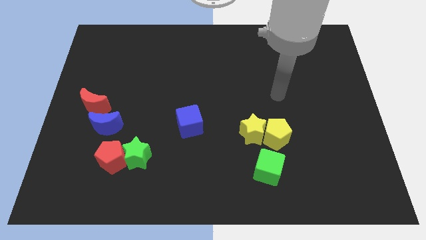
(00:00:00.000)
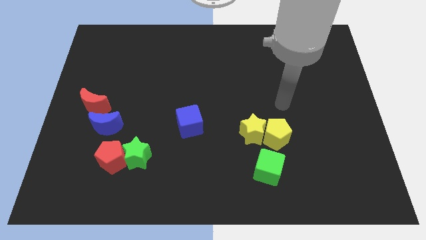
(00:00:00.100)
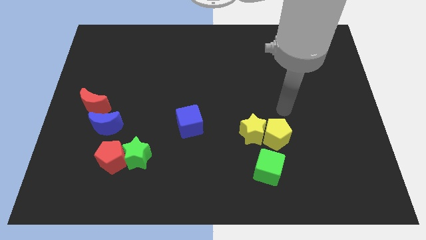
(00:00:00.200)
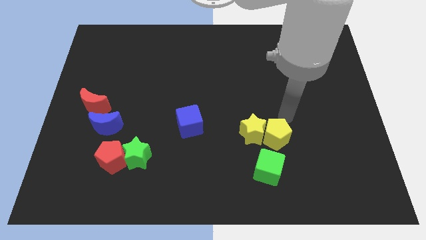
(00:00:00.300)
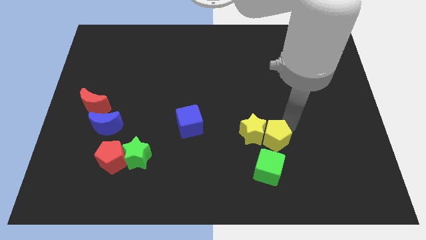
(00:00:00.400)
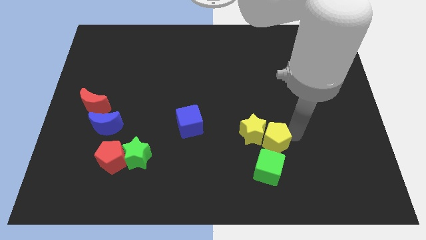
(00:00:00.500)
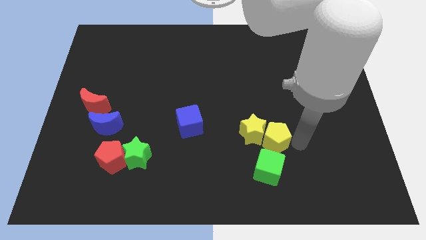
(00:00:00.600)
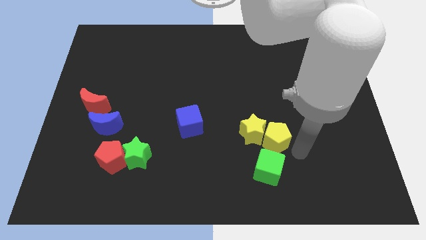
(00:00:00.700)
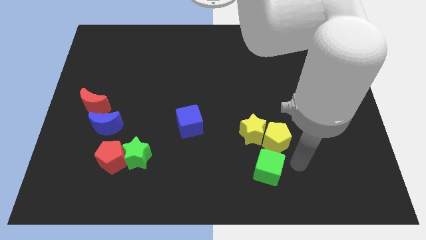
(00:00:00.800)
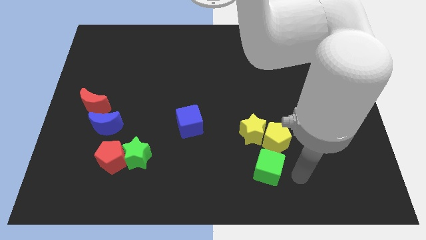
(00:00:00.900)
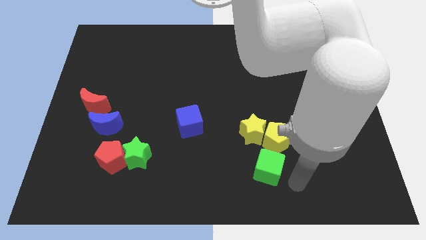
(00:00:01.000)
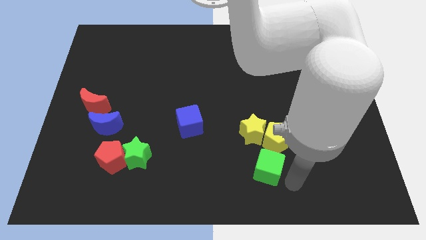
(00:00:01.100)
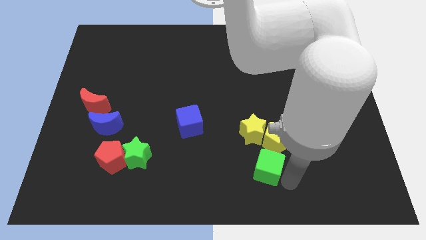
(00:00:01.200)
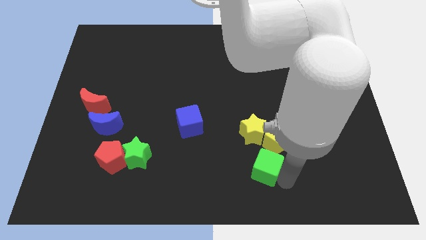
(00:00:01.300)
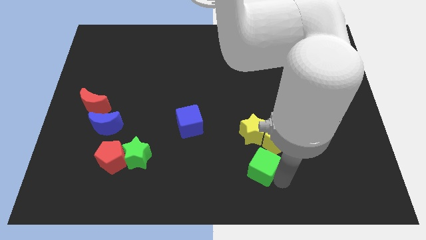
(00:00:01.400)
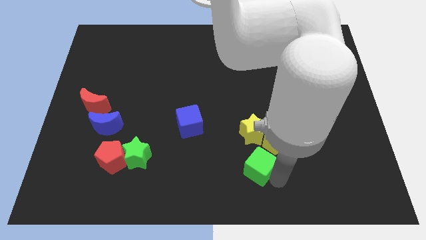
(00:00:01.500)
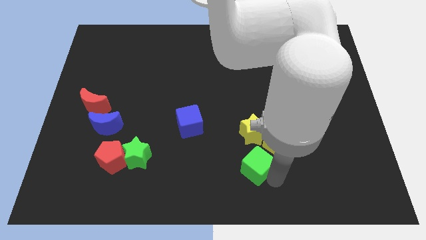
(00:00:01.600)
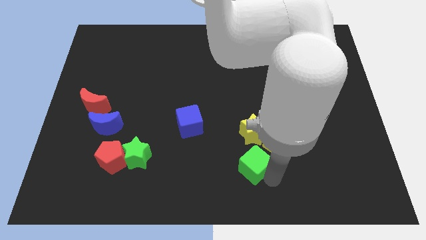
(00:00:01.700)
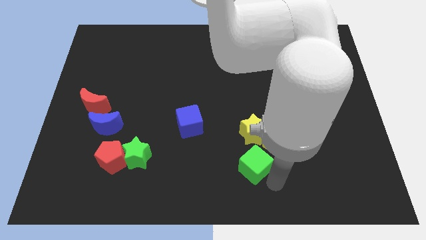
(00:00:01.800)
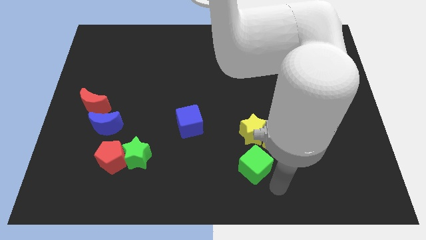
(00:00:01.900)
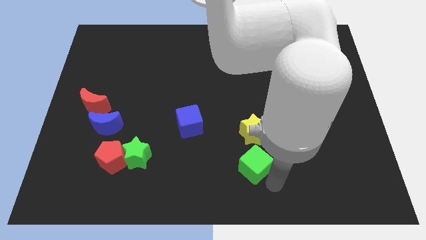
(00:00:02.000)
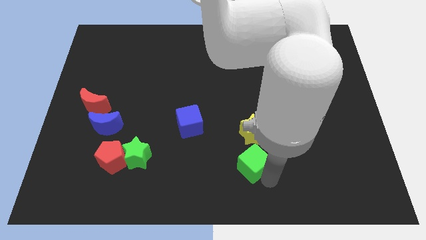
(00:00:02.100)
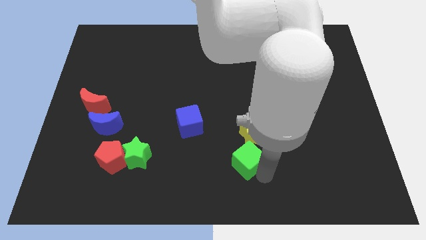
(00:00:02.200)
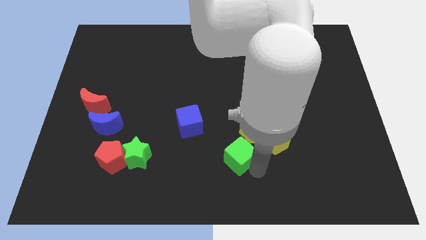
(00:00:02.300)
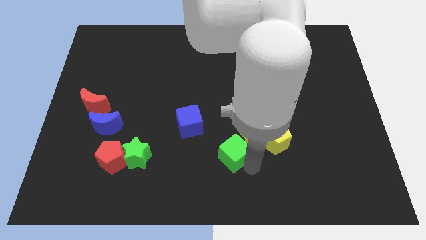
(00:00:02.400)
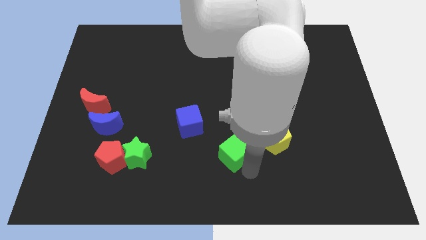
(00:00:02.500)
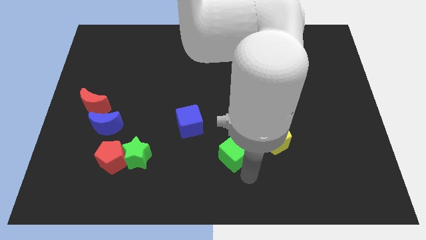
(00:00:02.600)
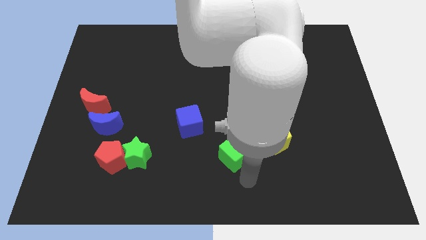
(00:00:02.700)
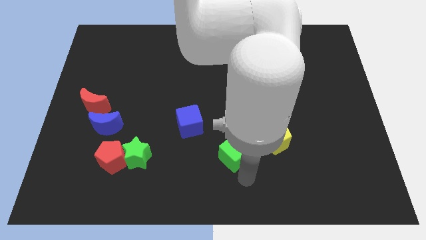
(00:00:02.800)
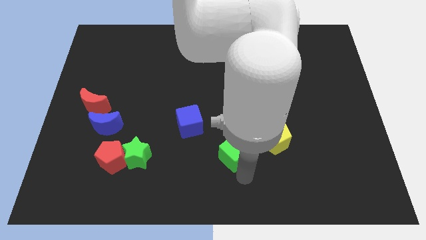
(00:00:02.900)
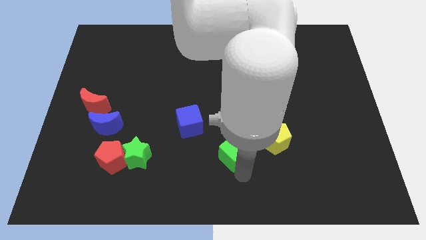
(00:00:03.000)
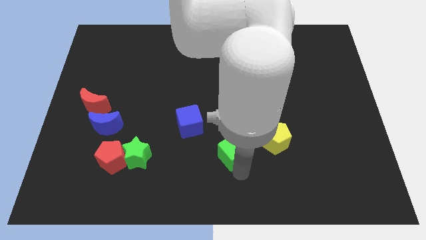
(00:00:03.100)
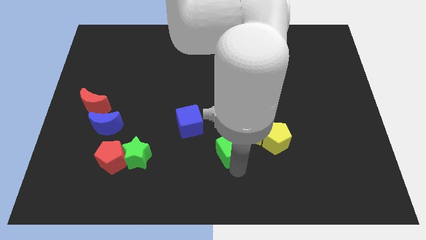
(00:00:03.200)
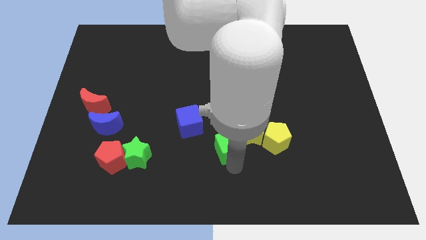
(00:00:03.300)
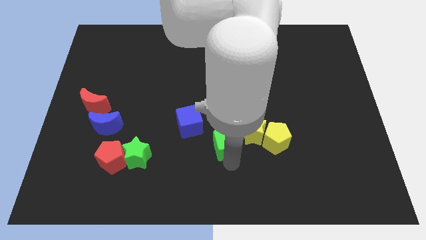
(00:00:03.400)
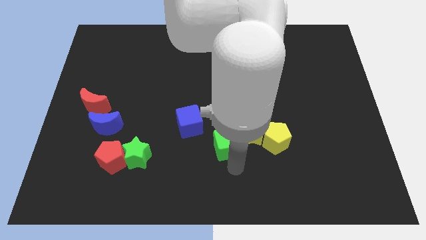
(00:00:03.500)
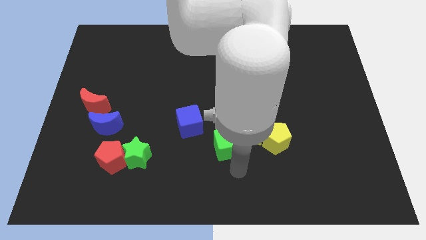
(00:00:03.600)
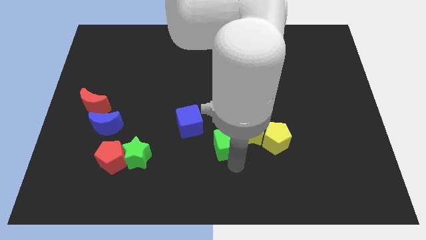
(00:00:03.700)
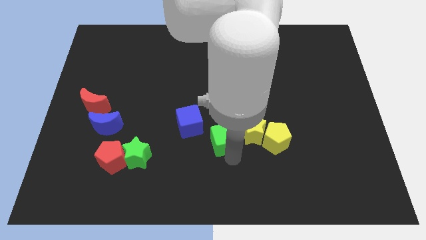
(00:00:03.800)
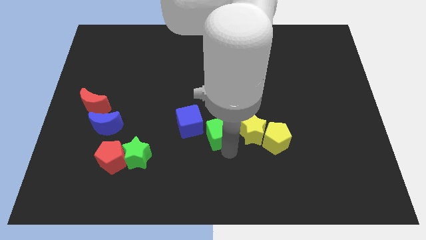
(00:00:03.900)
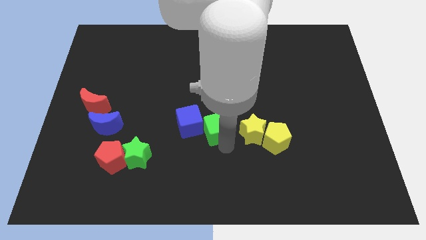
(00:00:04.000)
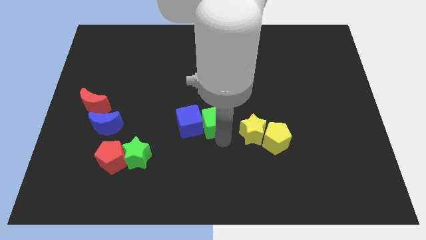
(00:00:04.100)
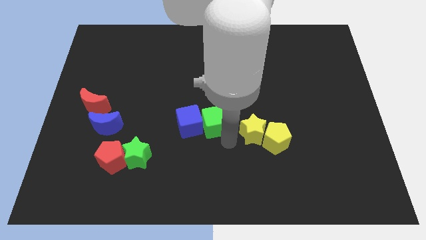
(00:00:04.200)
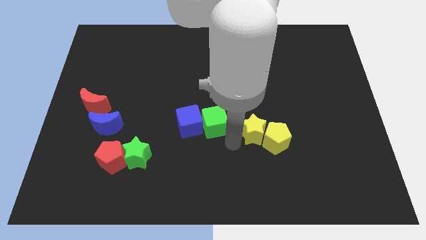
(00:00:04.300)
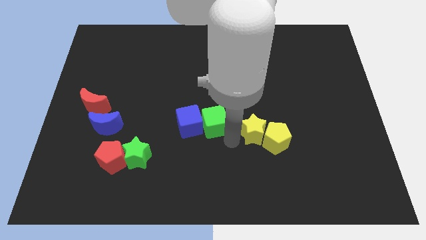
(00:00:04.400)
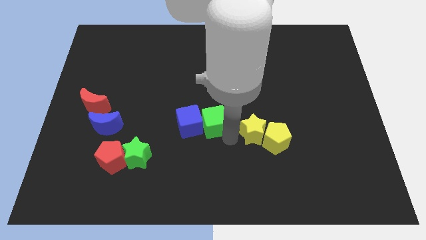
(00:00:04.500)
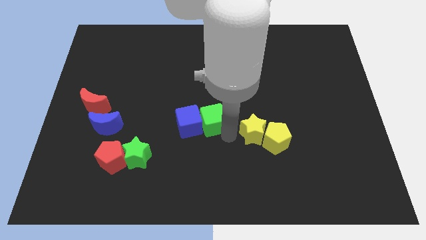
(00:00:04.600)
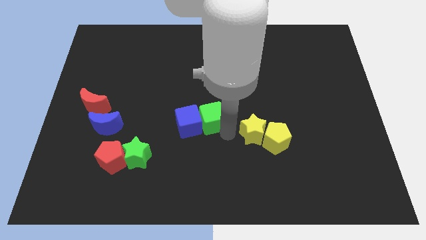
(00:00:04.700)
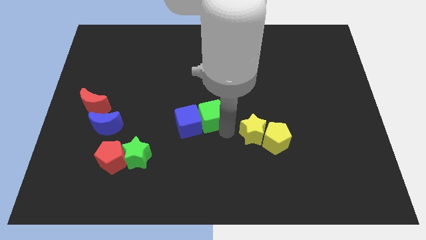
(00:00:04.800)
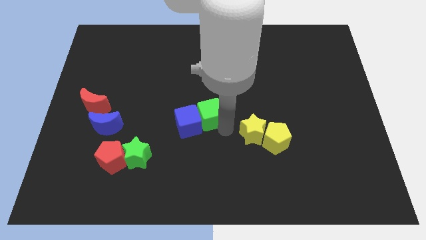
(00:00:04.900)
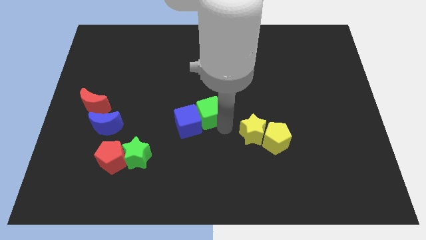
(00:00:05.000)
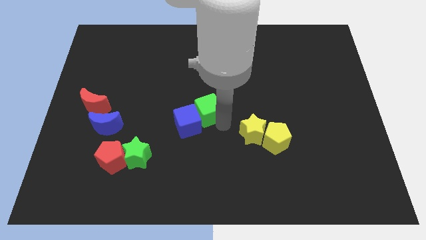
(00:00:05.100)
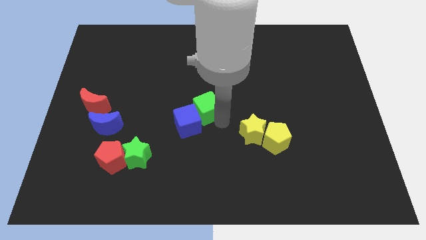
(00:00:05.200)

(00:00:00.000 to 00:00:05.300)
move the green cube diagonally upwards and left

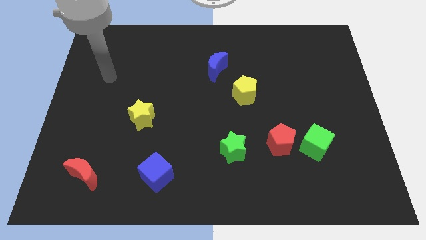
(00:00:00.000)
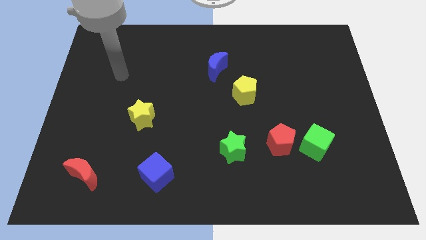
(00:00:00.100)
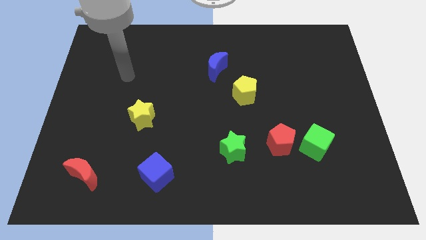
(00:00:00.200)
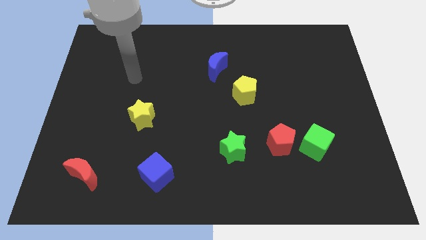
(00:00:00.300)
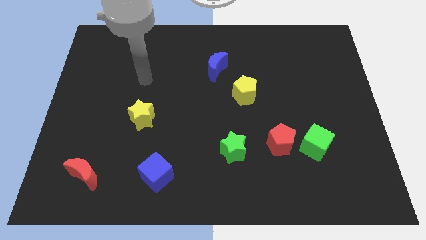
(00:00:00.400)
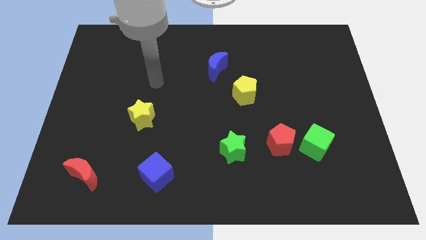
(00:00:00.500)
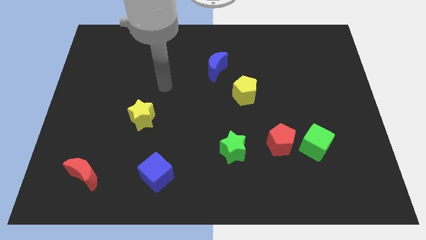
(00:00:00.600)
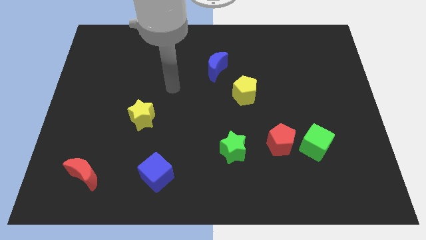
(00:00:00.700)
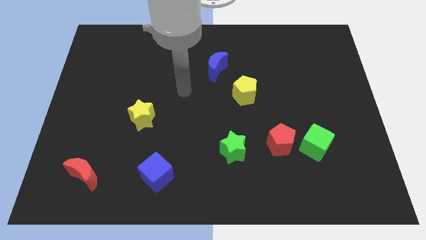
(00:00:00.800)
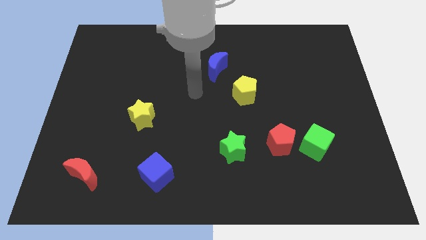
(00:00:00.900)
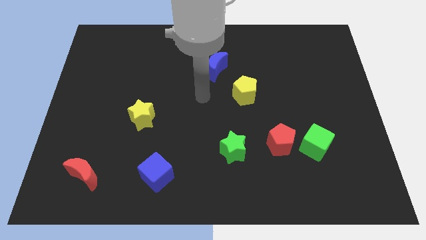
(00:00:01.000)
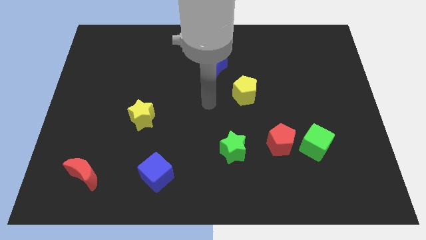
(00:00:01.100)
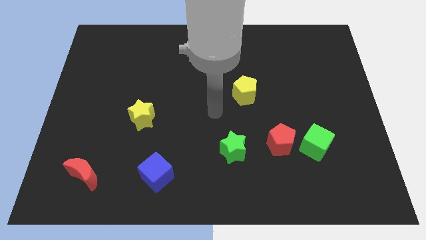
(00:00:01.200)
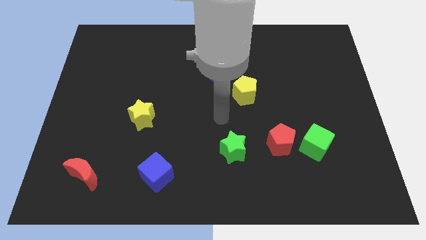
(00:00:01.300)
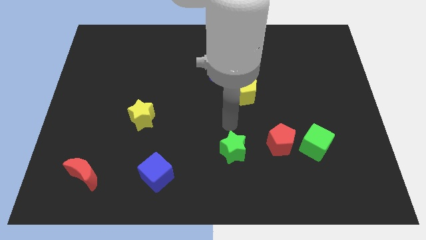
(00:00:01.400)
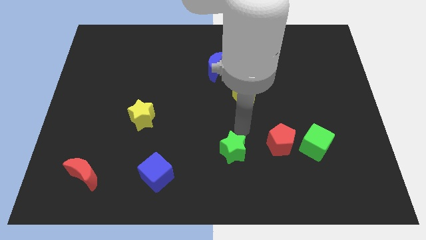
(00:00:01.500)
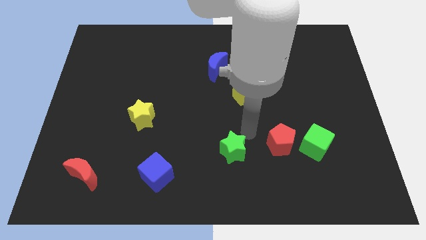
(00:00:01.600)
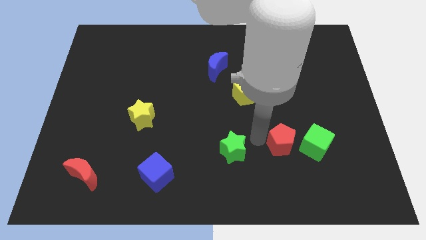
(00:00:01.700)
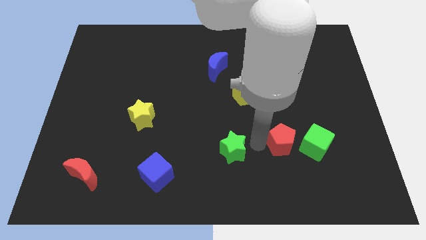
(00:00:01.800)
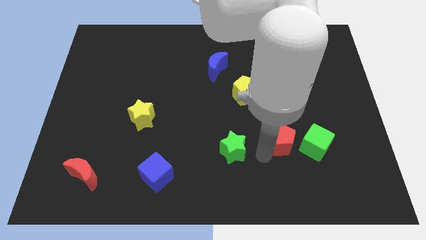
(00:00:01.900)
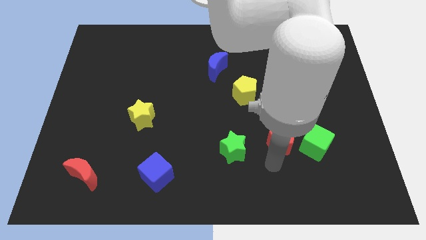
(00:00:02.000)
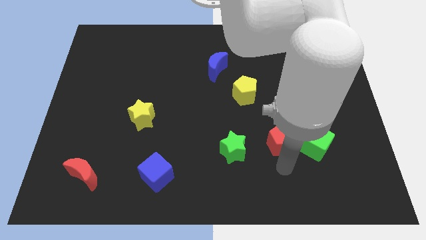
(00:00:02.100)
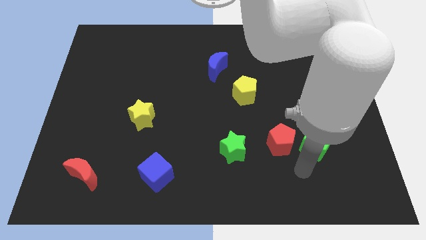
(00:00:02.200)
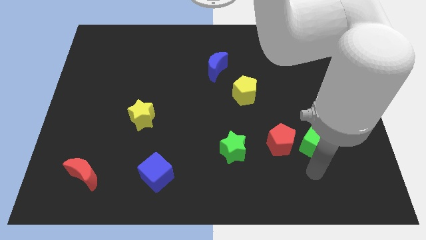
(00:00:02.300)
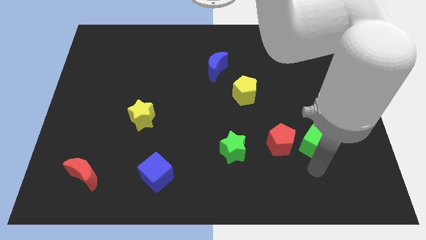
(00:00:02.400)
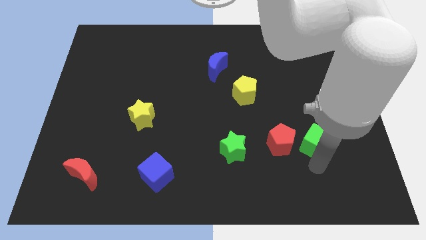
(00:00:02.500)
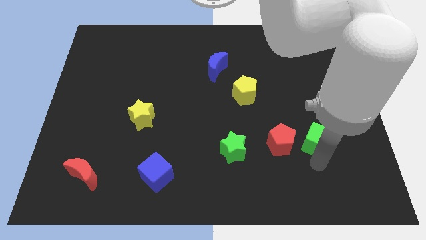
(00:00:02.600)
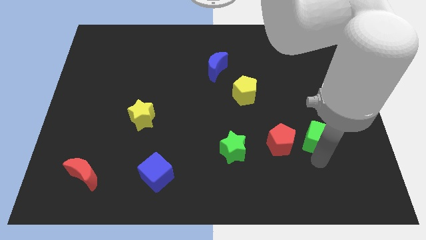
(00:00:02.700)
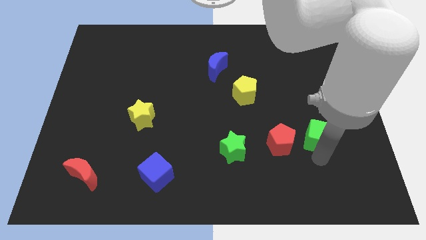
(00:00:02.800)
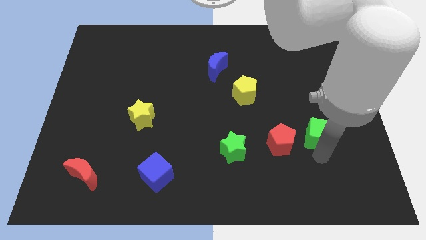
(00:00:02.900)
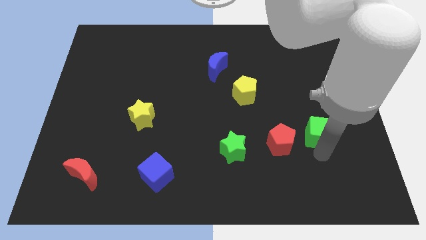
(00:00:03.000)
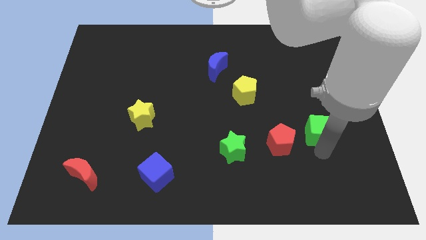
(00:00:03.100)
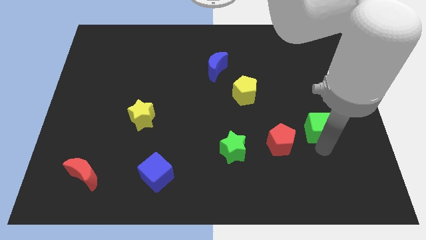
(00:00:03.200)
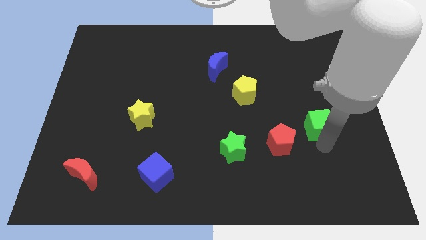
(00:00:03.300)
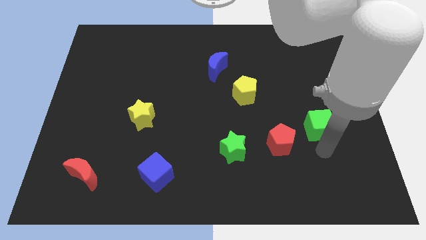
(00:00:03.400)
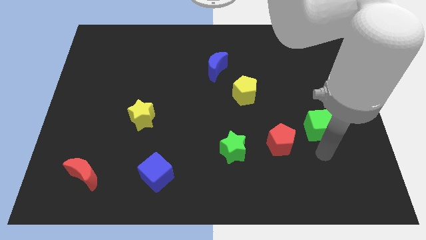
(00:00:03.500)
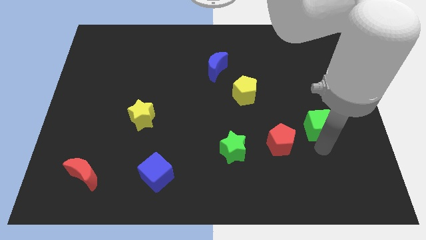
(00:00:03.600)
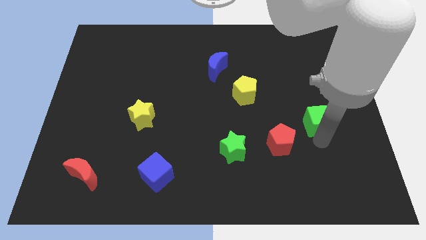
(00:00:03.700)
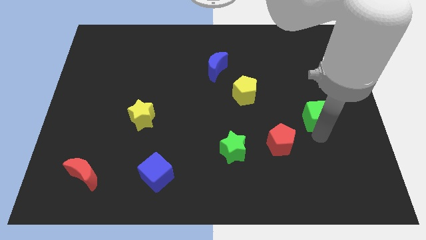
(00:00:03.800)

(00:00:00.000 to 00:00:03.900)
push the green cube up a little bit
